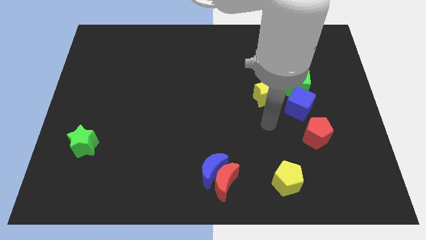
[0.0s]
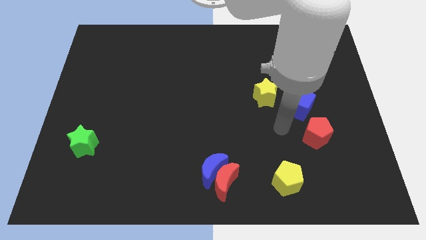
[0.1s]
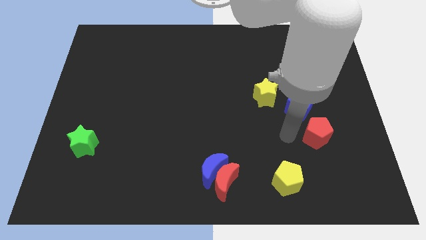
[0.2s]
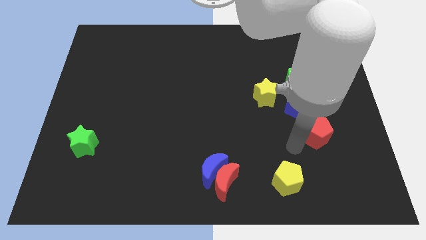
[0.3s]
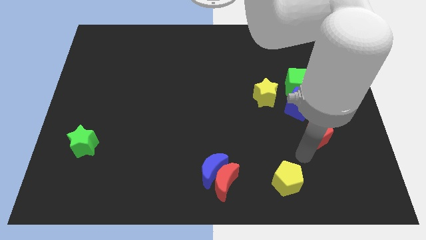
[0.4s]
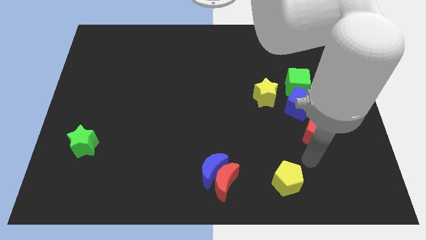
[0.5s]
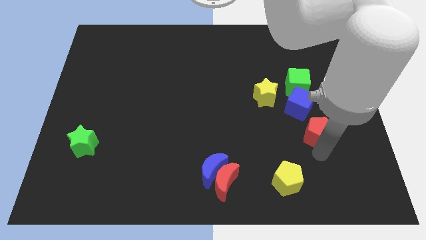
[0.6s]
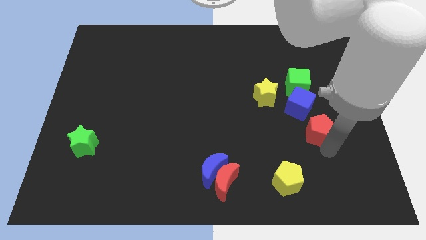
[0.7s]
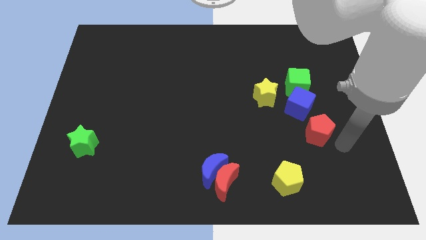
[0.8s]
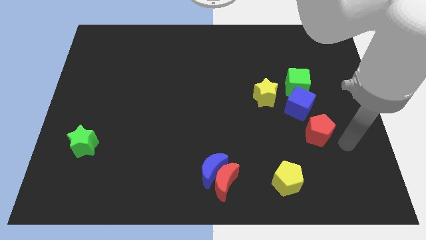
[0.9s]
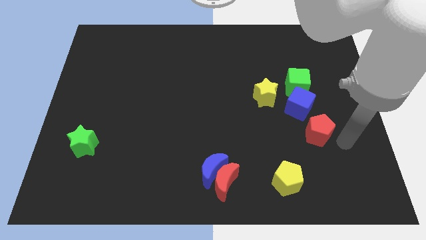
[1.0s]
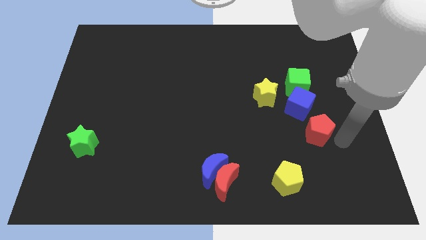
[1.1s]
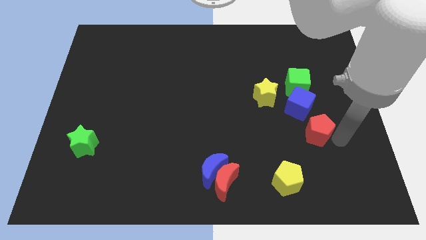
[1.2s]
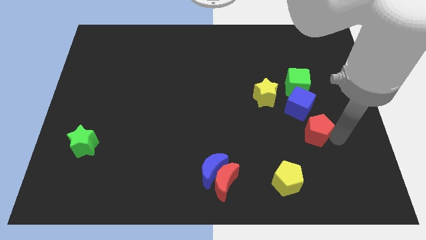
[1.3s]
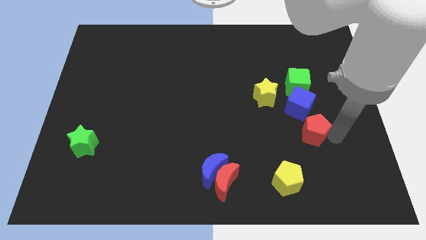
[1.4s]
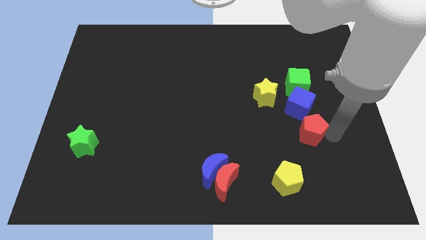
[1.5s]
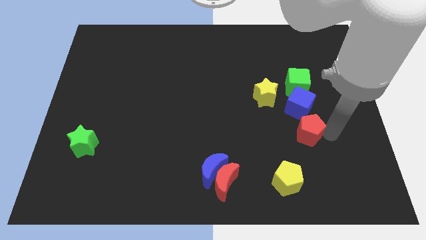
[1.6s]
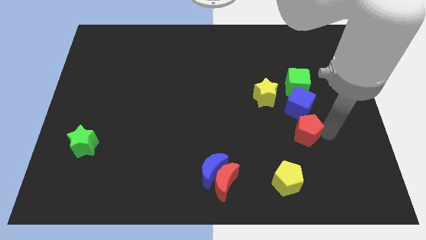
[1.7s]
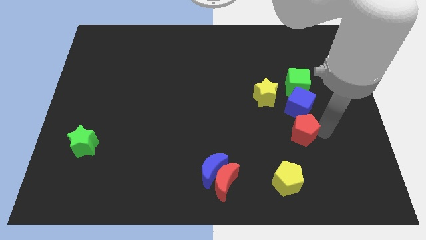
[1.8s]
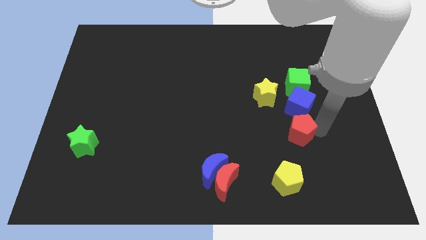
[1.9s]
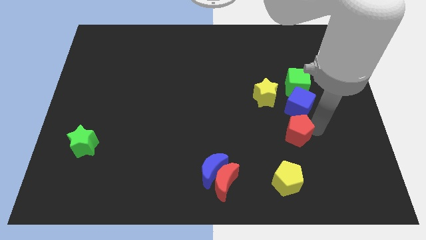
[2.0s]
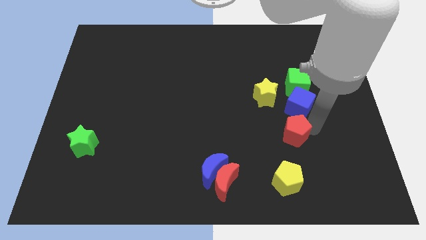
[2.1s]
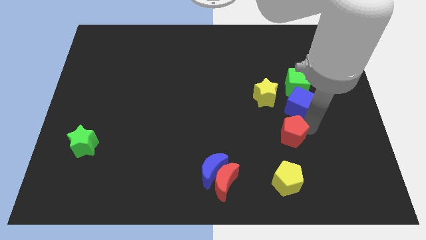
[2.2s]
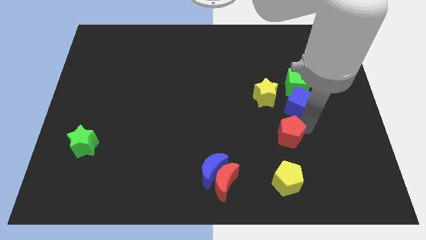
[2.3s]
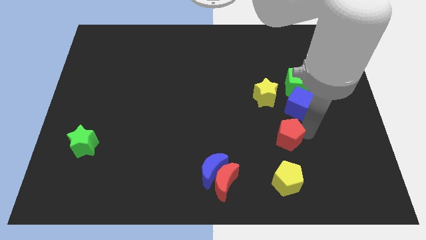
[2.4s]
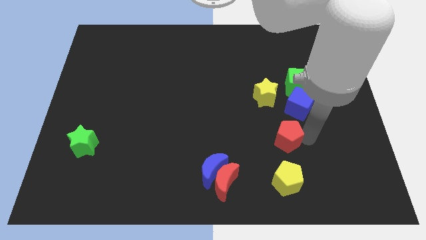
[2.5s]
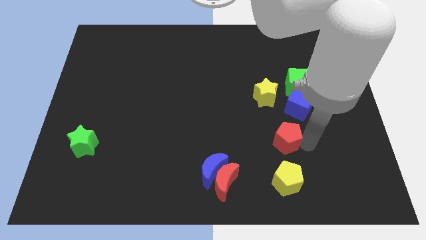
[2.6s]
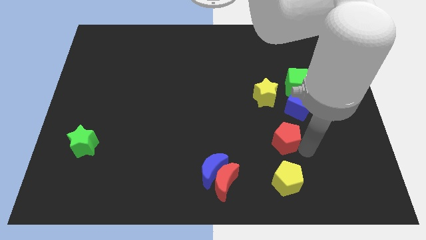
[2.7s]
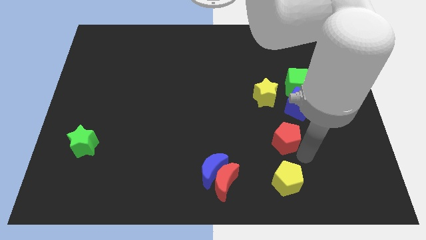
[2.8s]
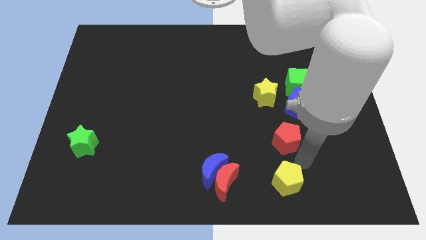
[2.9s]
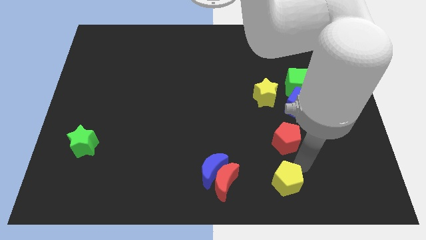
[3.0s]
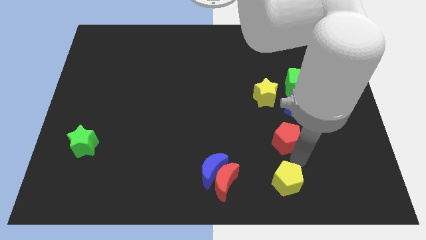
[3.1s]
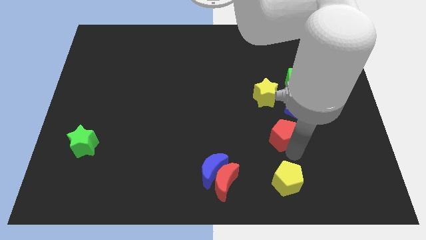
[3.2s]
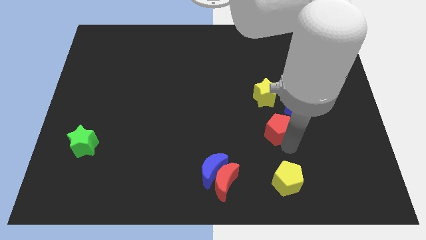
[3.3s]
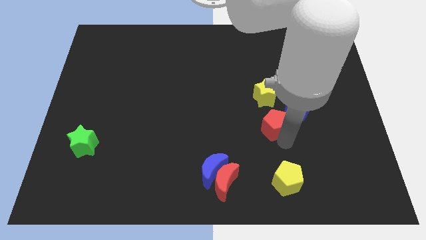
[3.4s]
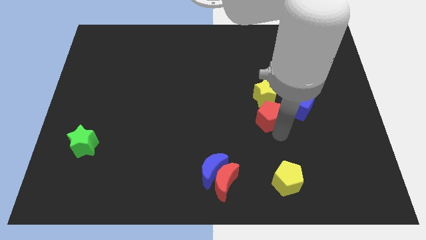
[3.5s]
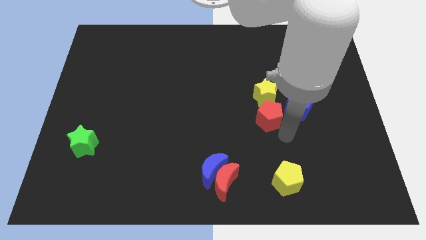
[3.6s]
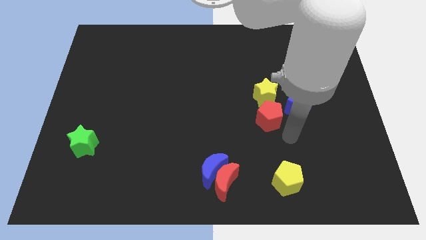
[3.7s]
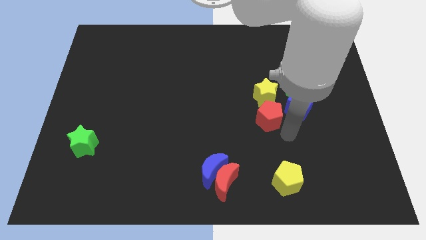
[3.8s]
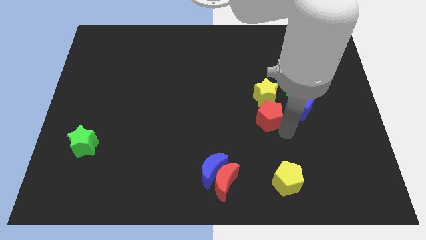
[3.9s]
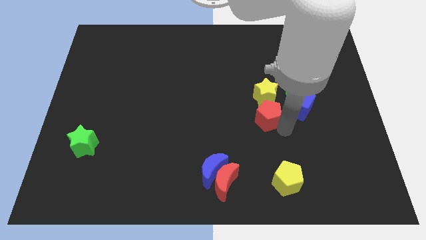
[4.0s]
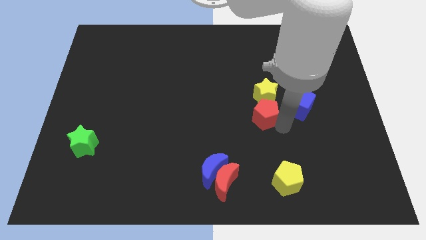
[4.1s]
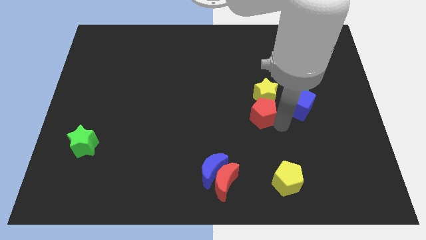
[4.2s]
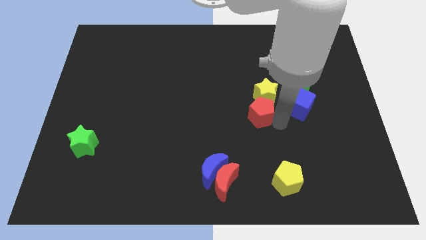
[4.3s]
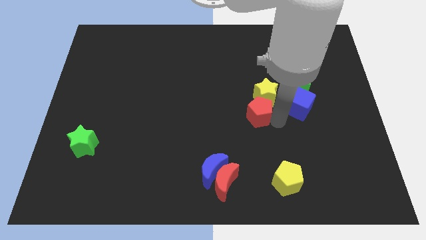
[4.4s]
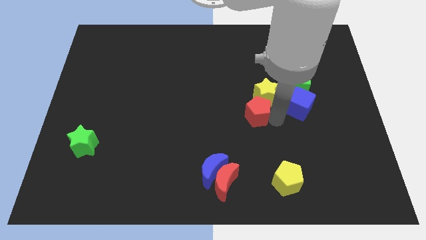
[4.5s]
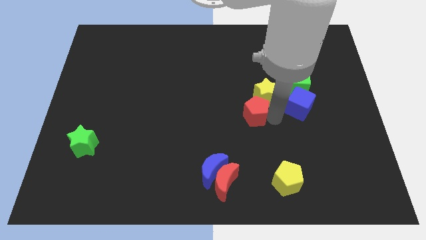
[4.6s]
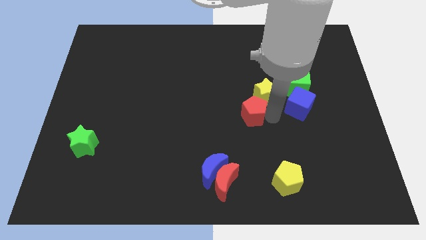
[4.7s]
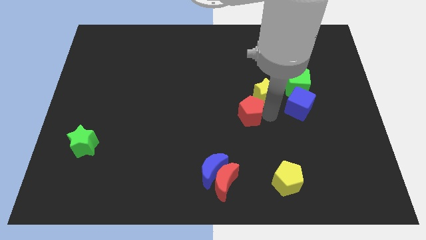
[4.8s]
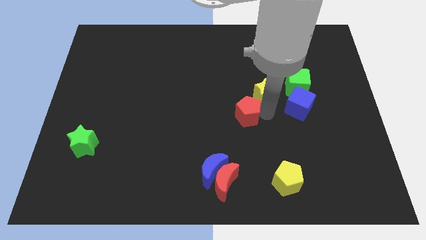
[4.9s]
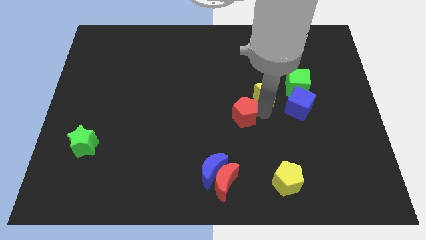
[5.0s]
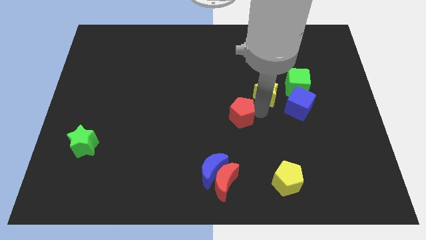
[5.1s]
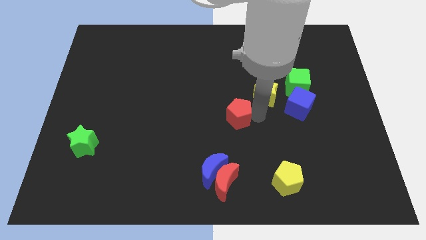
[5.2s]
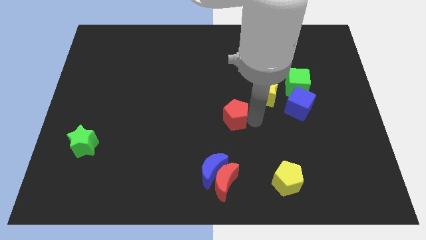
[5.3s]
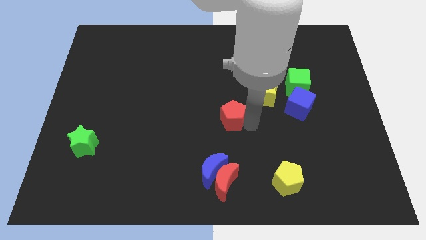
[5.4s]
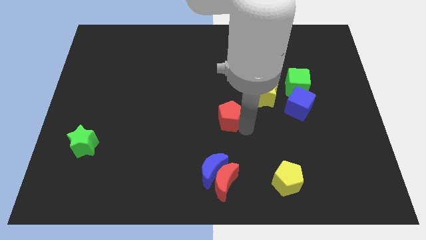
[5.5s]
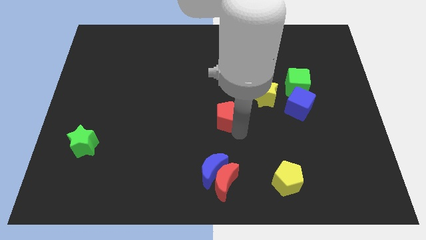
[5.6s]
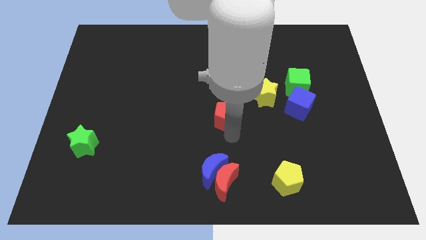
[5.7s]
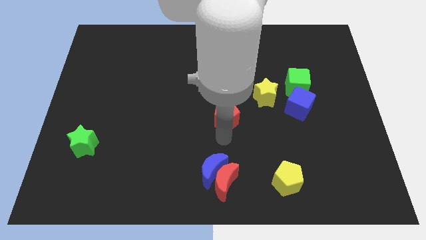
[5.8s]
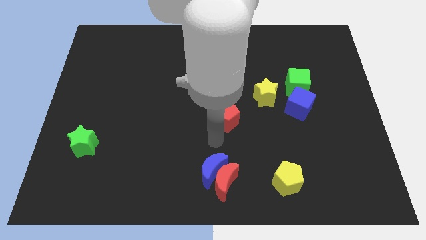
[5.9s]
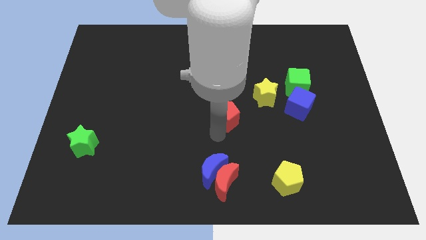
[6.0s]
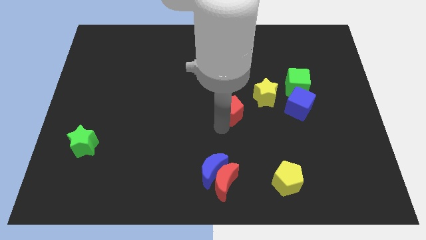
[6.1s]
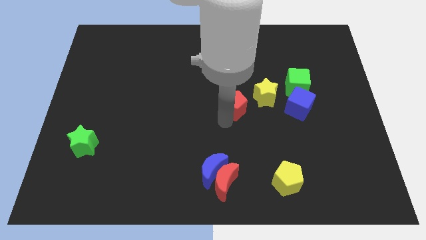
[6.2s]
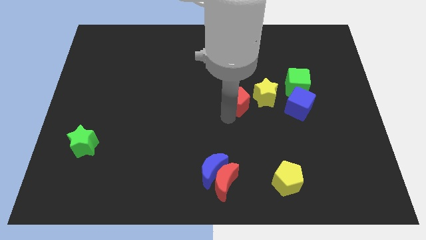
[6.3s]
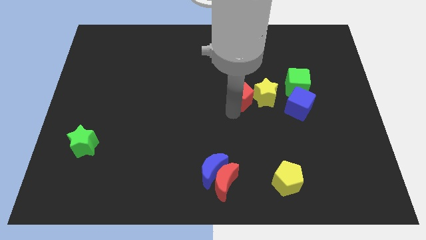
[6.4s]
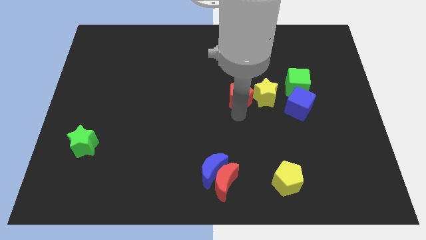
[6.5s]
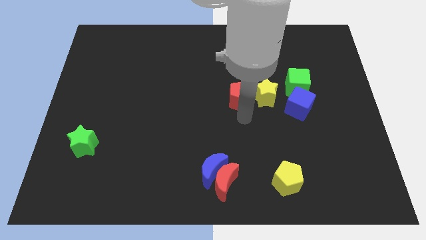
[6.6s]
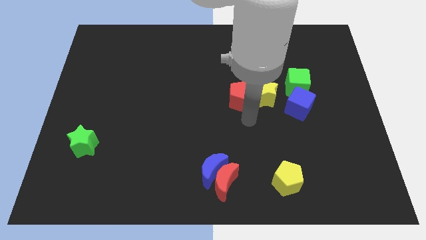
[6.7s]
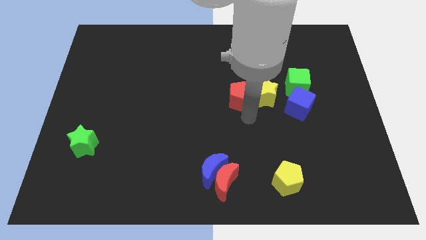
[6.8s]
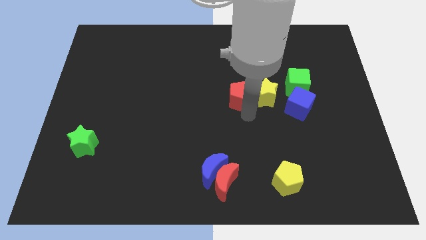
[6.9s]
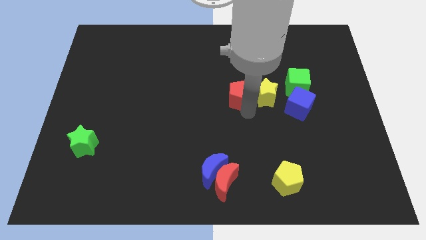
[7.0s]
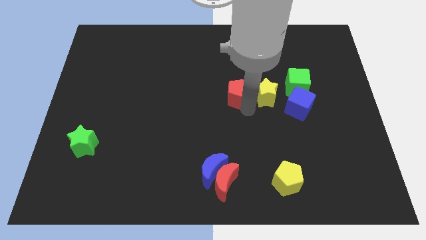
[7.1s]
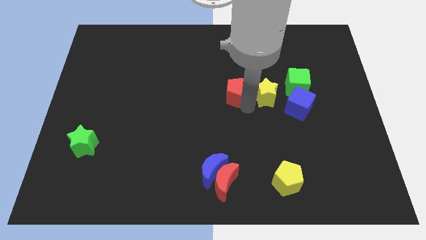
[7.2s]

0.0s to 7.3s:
push the red pentagon up and to the left

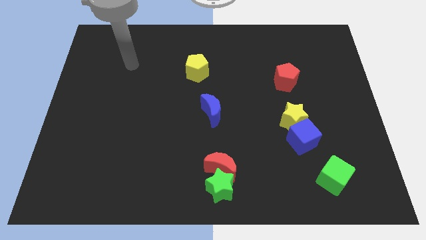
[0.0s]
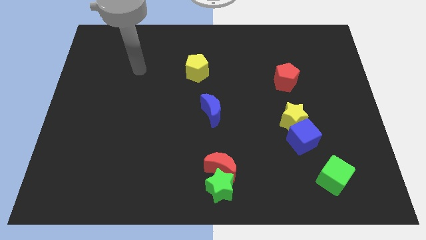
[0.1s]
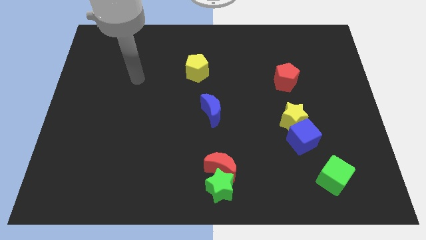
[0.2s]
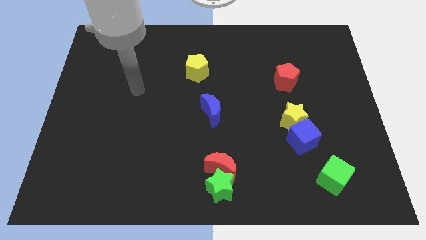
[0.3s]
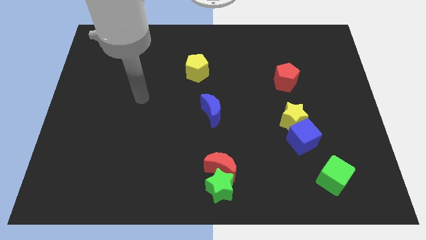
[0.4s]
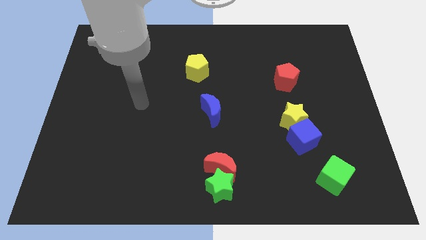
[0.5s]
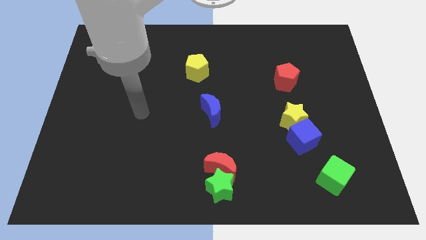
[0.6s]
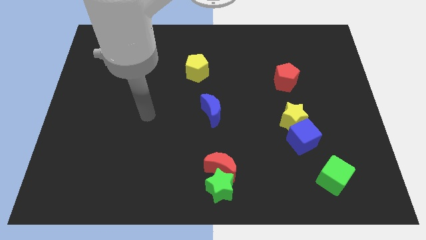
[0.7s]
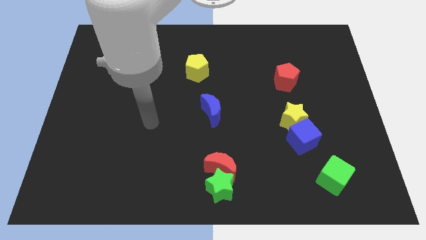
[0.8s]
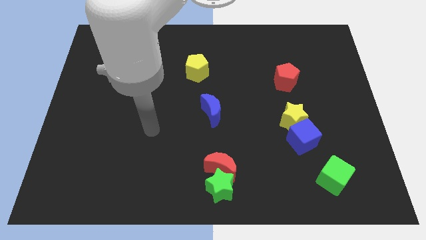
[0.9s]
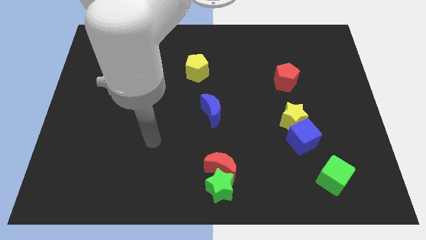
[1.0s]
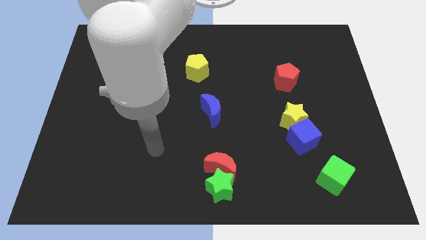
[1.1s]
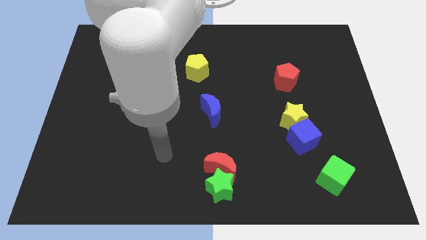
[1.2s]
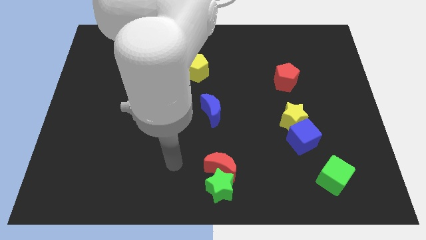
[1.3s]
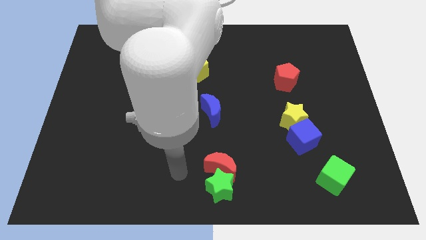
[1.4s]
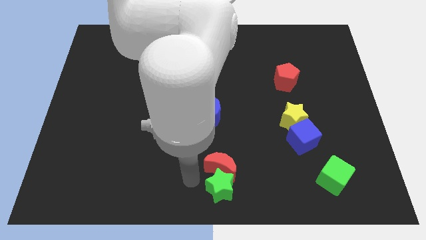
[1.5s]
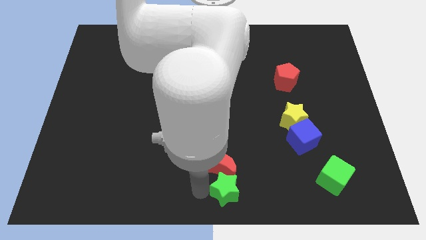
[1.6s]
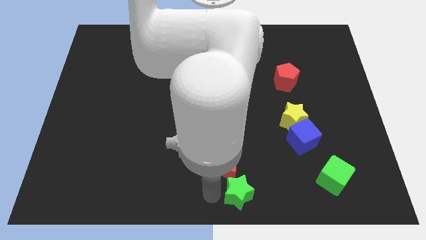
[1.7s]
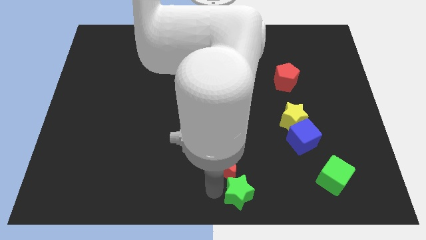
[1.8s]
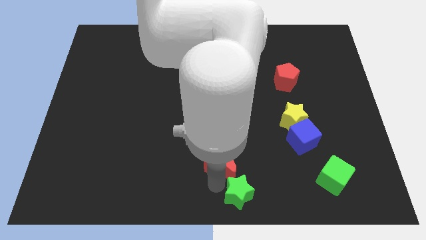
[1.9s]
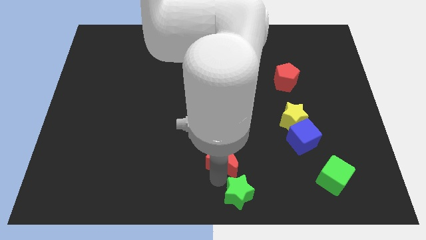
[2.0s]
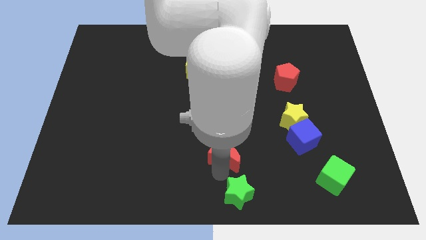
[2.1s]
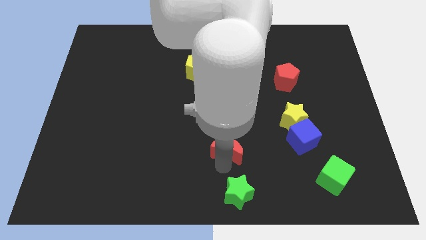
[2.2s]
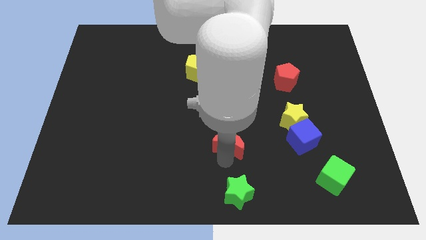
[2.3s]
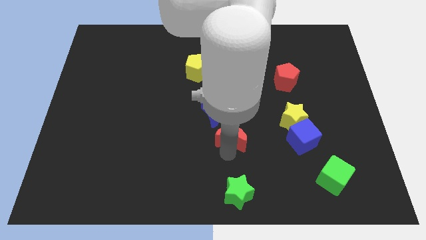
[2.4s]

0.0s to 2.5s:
move the red moon upwards a little bit
